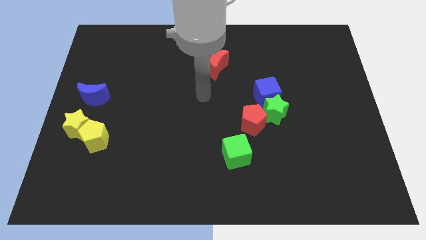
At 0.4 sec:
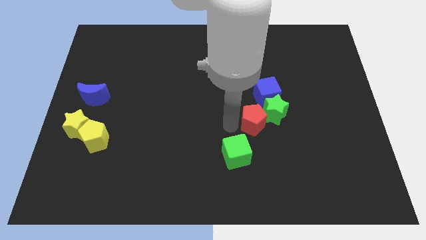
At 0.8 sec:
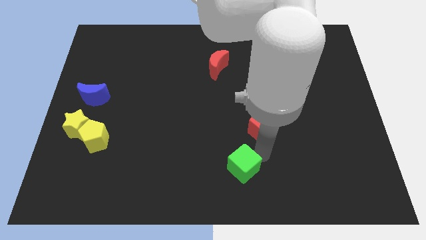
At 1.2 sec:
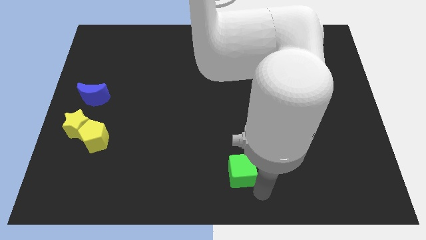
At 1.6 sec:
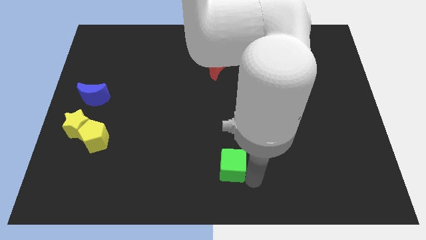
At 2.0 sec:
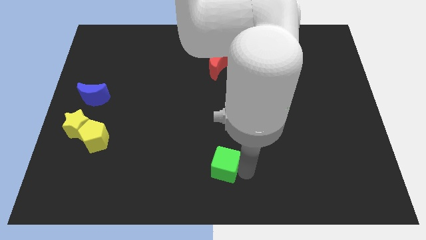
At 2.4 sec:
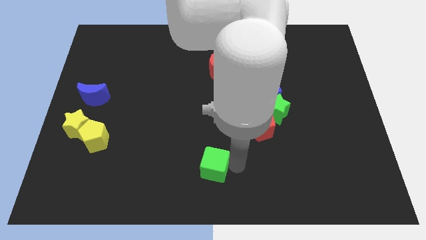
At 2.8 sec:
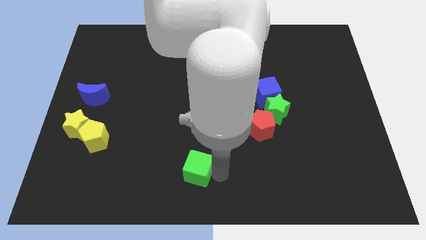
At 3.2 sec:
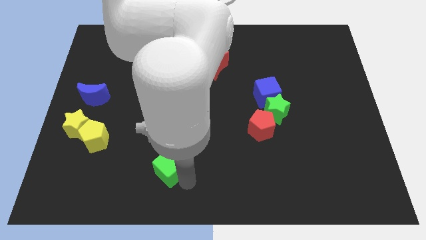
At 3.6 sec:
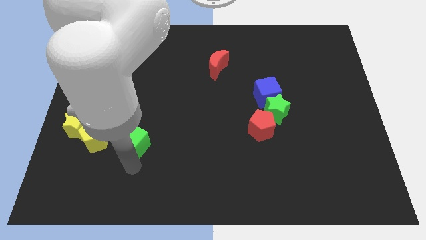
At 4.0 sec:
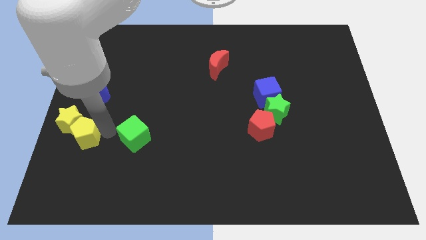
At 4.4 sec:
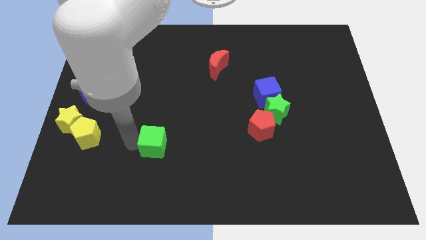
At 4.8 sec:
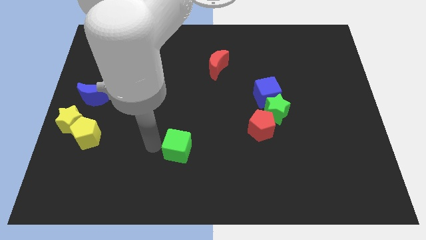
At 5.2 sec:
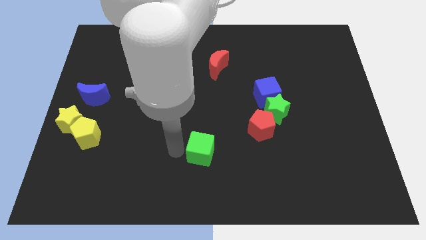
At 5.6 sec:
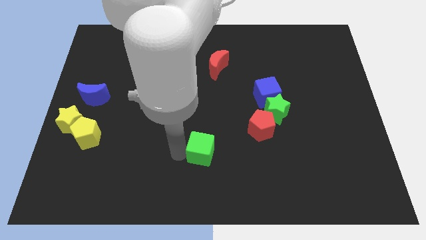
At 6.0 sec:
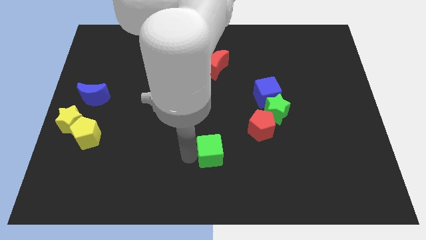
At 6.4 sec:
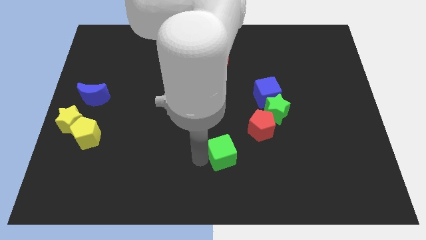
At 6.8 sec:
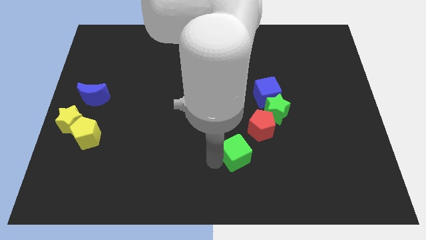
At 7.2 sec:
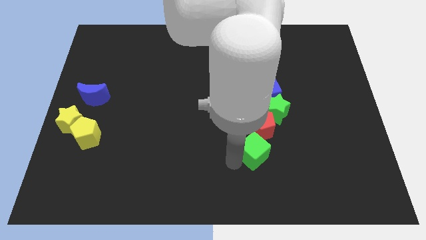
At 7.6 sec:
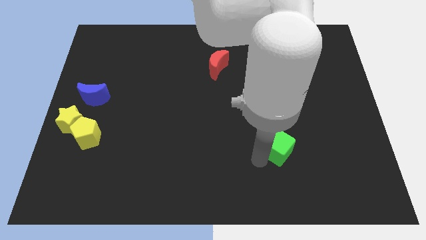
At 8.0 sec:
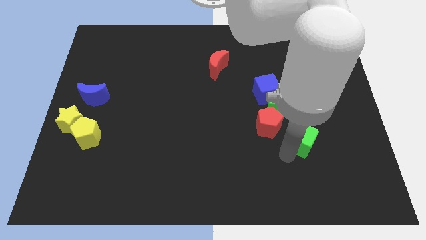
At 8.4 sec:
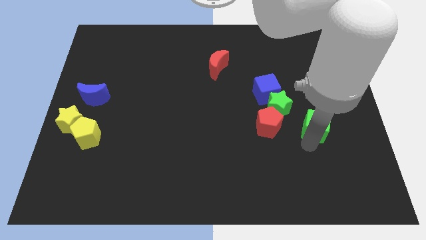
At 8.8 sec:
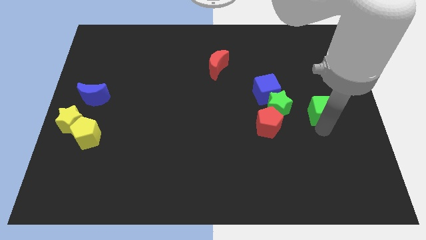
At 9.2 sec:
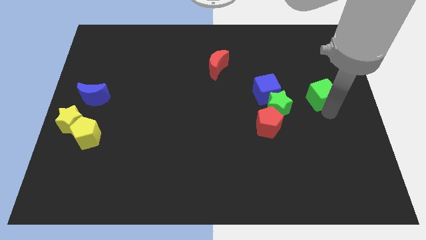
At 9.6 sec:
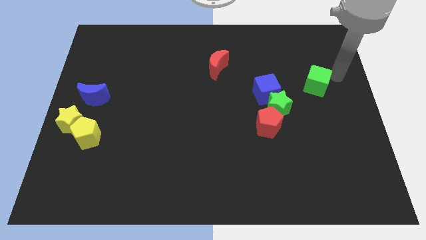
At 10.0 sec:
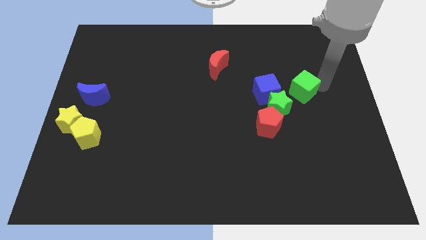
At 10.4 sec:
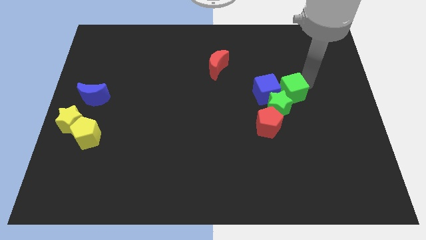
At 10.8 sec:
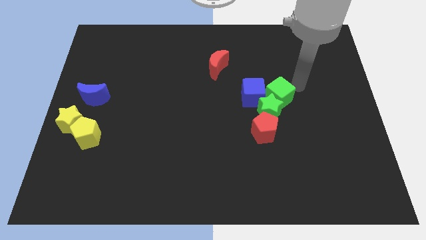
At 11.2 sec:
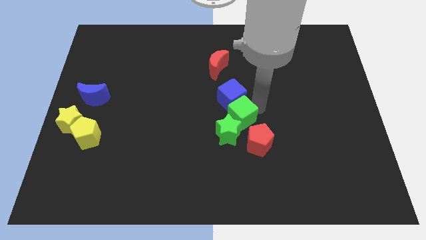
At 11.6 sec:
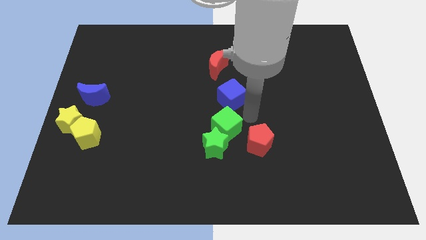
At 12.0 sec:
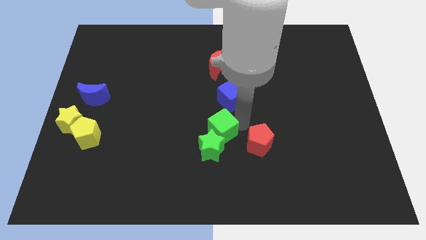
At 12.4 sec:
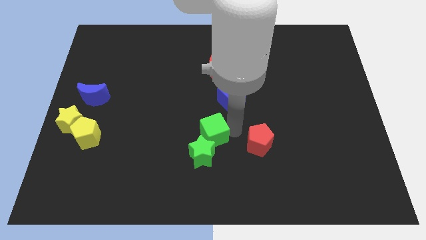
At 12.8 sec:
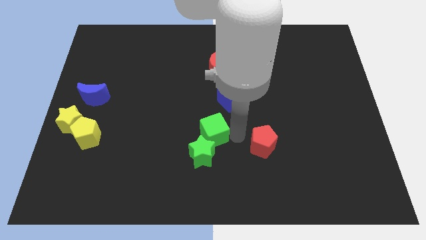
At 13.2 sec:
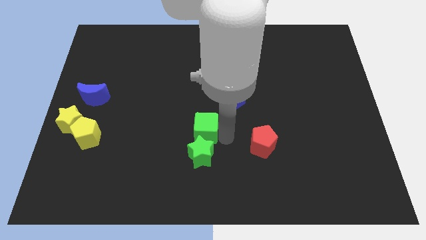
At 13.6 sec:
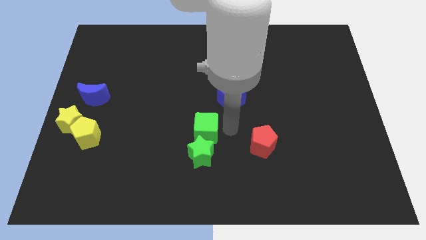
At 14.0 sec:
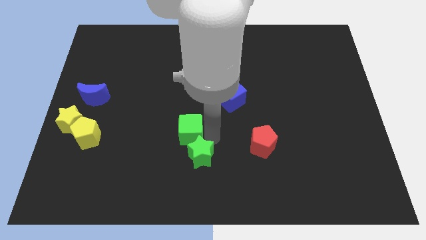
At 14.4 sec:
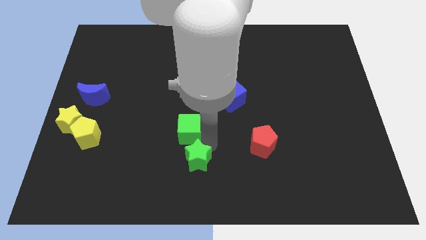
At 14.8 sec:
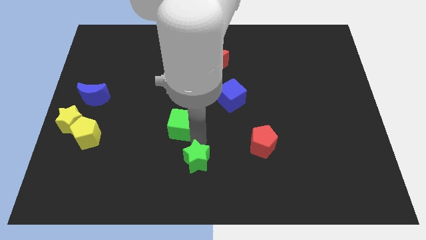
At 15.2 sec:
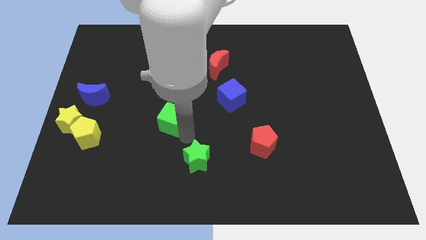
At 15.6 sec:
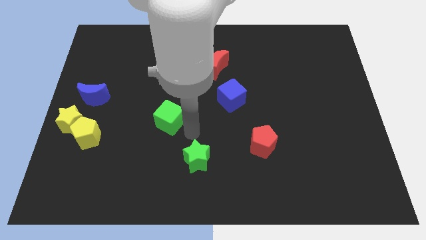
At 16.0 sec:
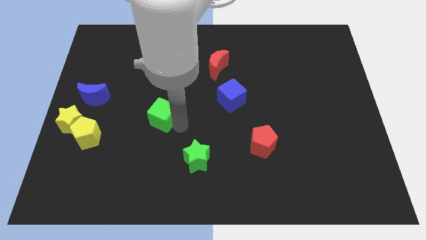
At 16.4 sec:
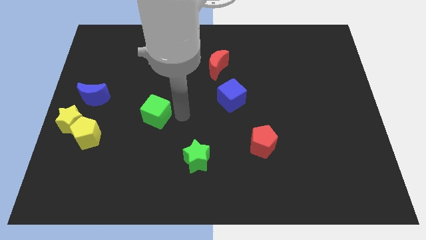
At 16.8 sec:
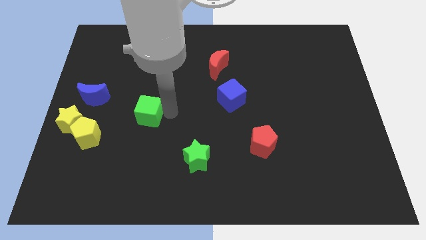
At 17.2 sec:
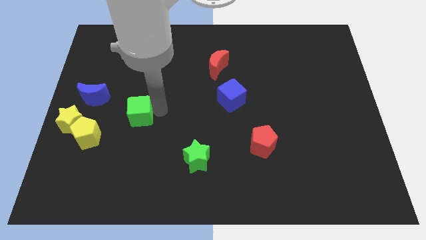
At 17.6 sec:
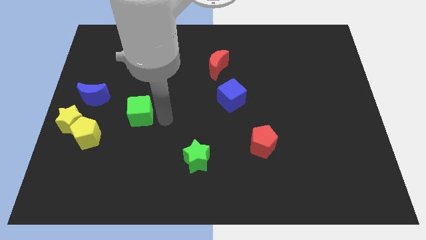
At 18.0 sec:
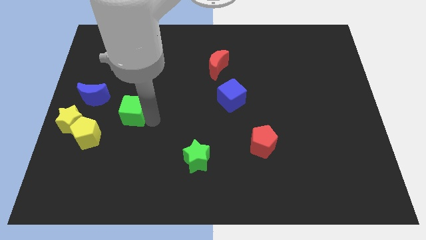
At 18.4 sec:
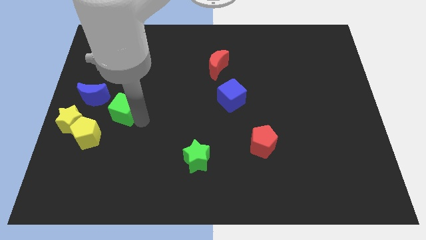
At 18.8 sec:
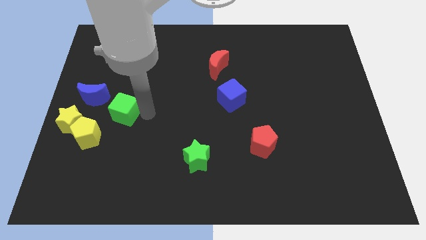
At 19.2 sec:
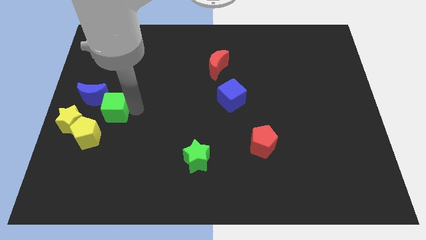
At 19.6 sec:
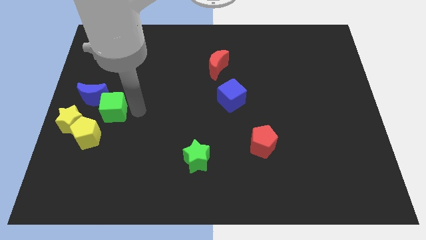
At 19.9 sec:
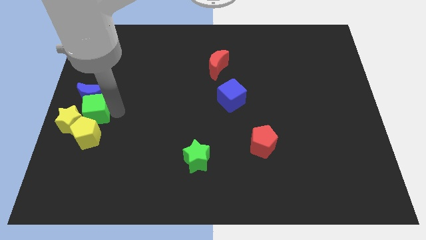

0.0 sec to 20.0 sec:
slide the green cube to the center left
